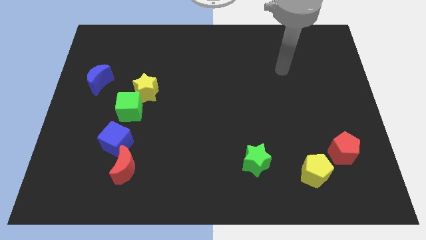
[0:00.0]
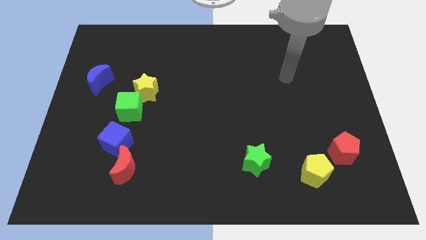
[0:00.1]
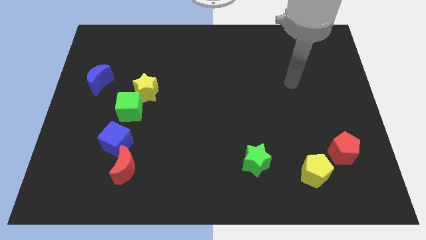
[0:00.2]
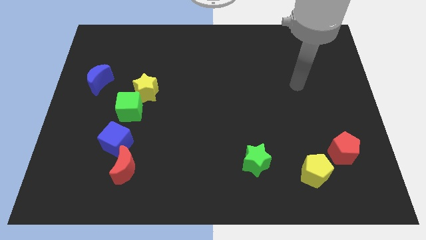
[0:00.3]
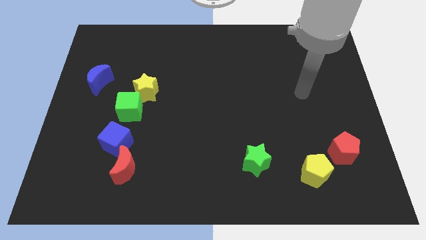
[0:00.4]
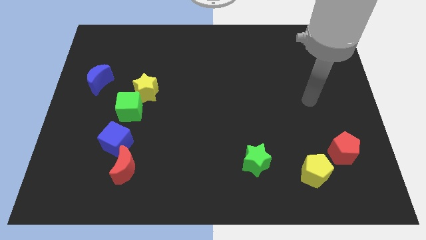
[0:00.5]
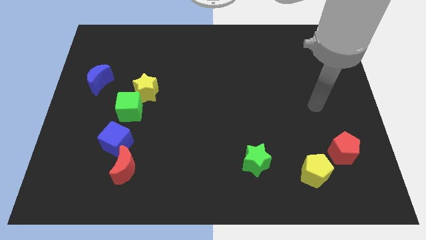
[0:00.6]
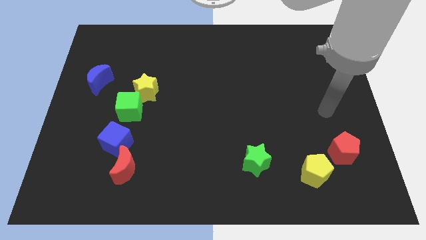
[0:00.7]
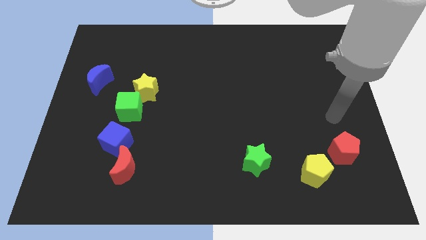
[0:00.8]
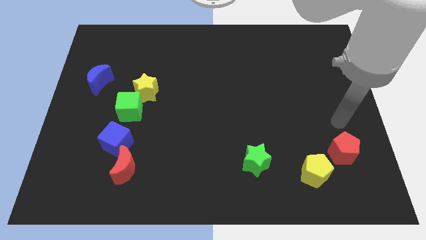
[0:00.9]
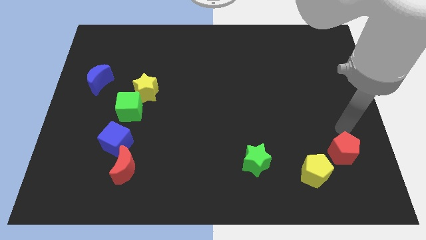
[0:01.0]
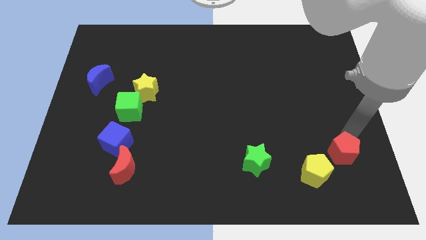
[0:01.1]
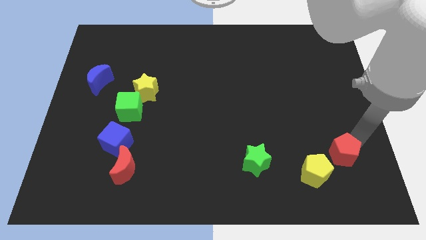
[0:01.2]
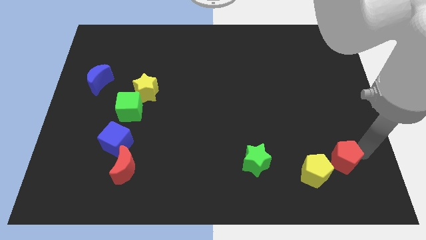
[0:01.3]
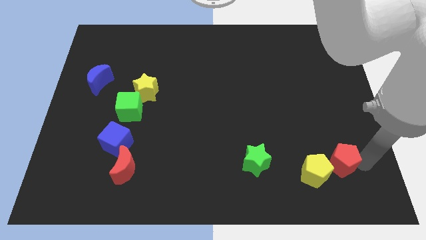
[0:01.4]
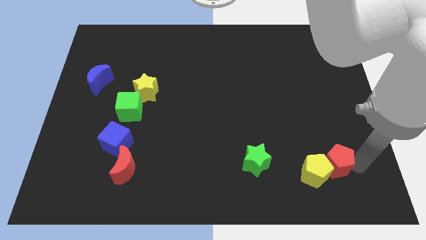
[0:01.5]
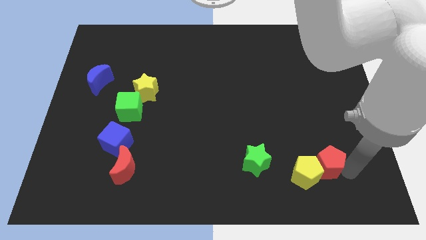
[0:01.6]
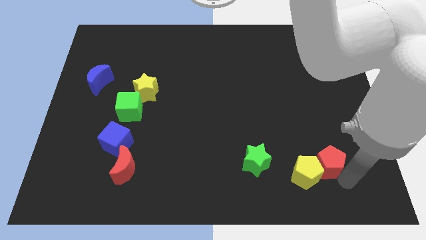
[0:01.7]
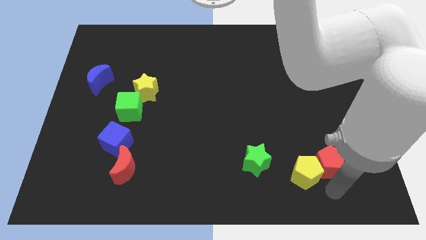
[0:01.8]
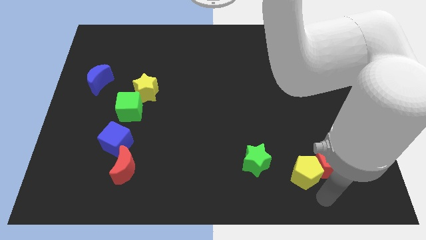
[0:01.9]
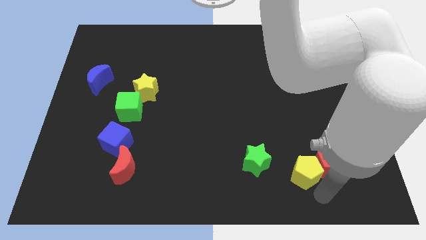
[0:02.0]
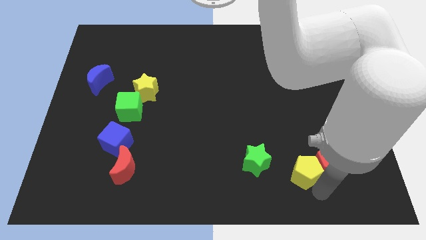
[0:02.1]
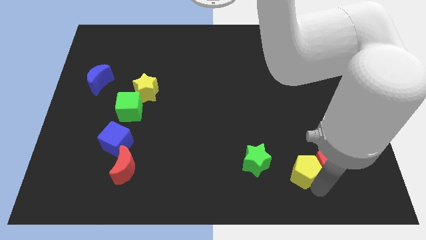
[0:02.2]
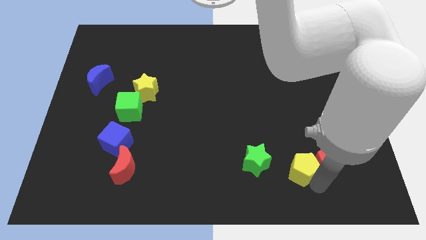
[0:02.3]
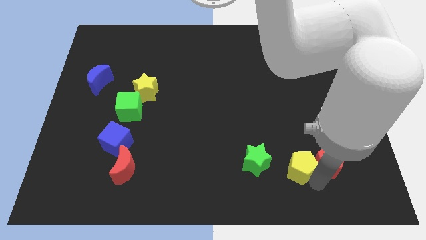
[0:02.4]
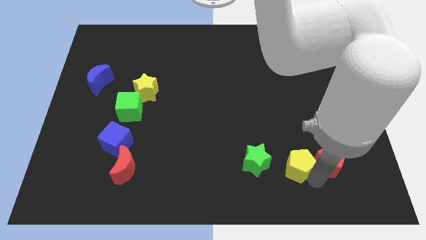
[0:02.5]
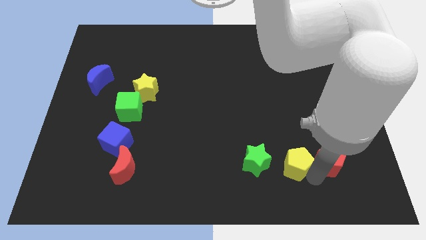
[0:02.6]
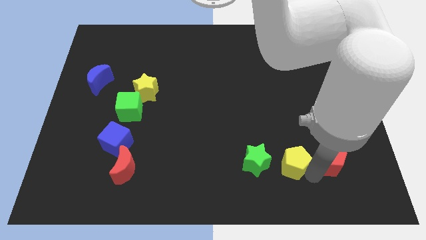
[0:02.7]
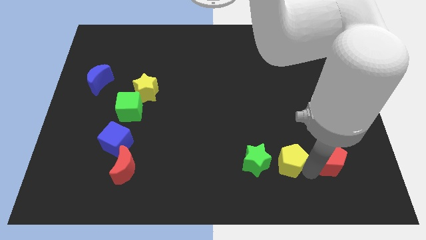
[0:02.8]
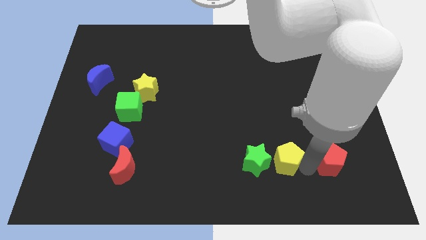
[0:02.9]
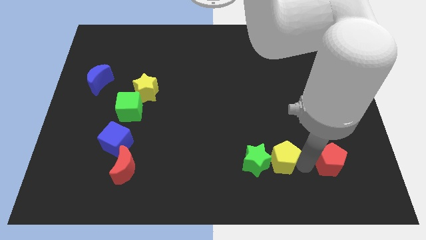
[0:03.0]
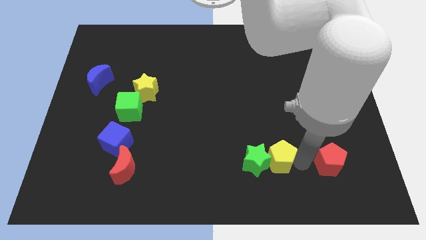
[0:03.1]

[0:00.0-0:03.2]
slightly slide the yellow pentagon up and left diagonally

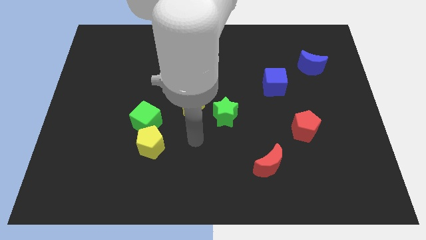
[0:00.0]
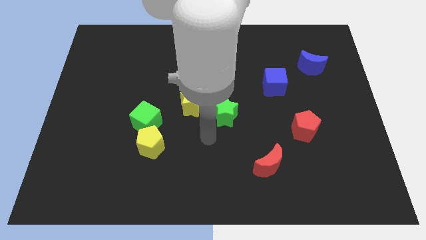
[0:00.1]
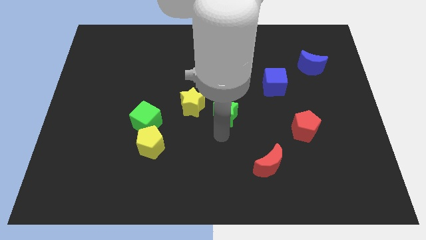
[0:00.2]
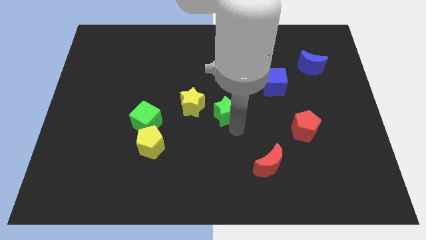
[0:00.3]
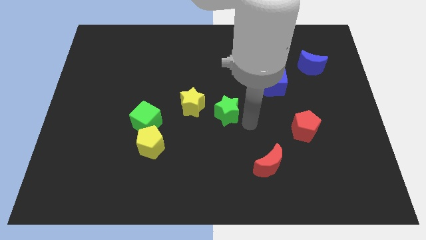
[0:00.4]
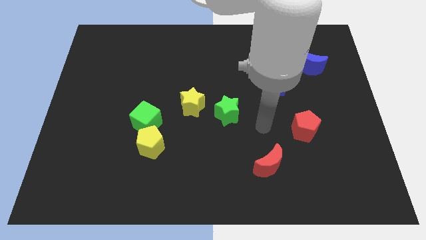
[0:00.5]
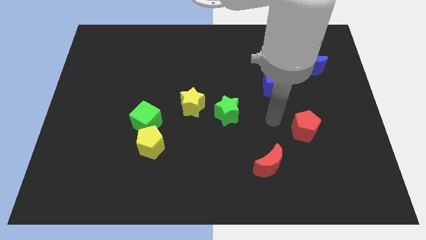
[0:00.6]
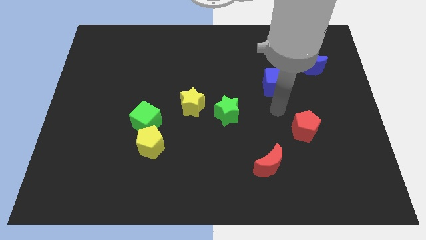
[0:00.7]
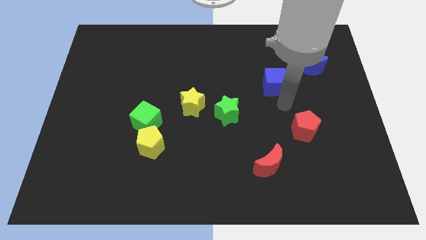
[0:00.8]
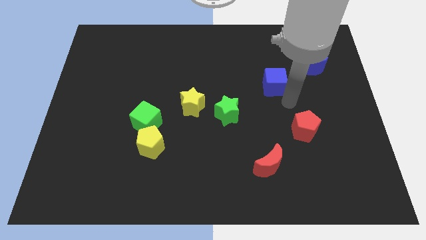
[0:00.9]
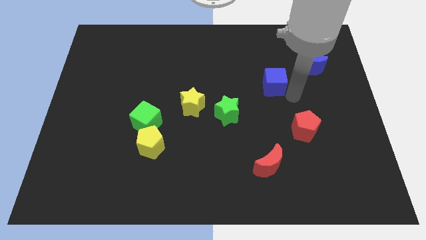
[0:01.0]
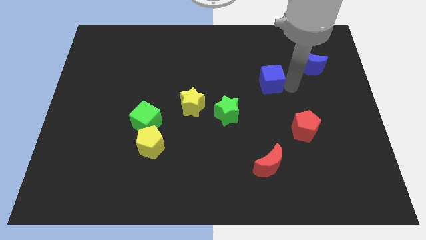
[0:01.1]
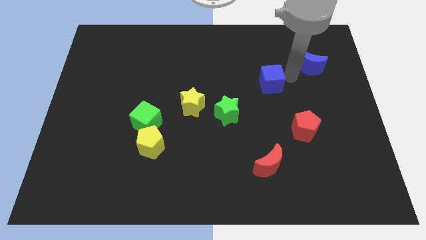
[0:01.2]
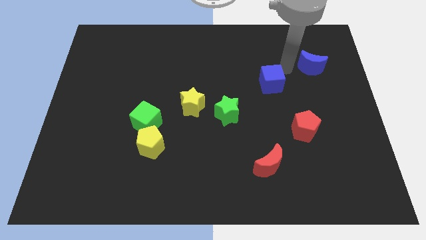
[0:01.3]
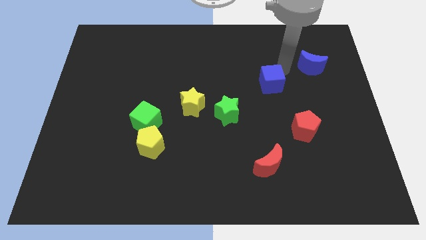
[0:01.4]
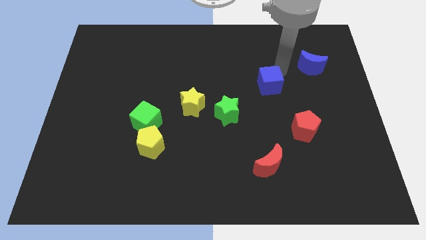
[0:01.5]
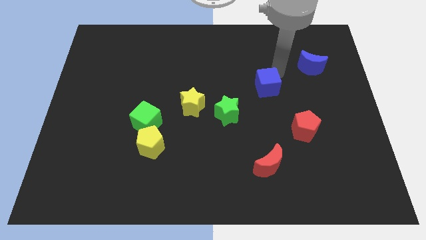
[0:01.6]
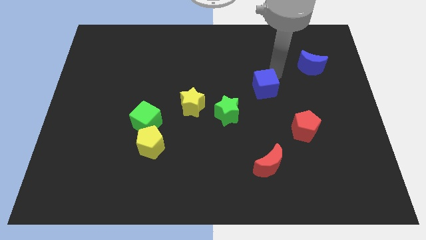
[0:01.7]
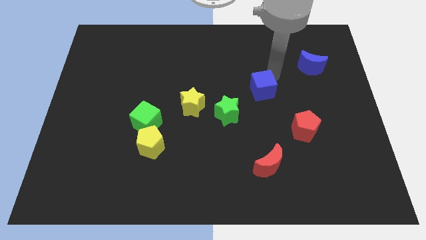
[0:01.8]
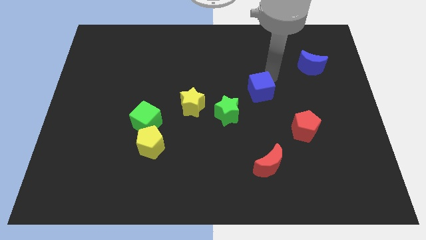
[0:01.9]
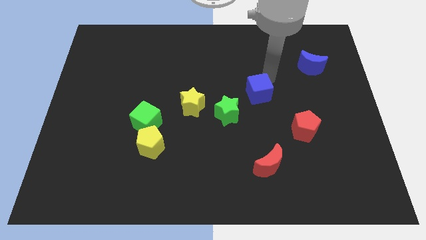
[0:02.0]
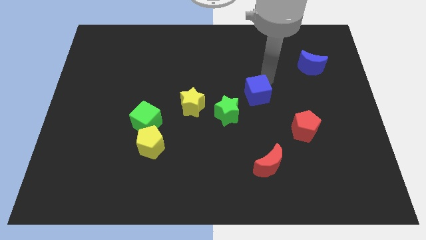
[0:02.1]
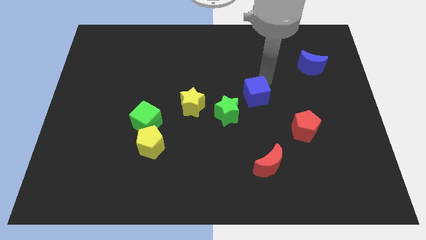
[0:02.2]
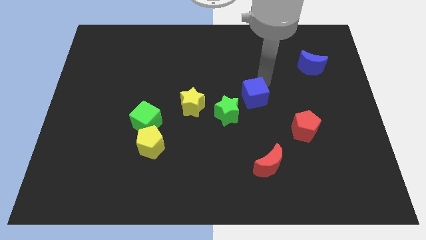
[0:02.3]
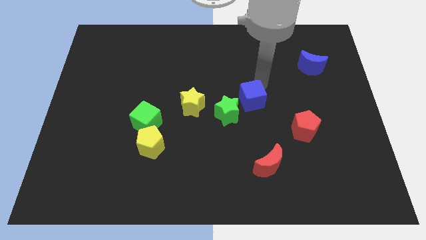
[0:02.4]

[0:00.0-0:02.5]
slide the blue cube downwards and to the left slightly

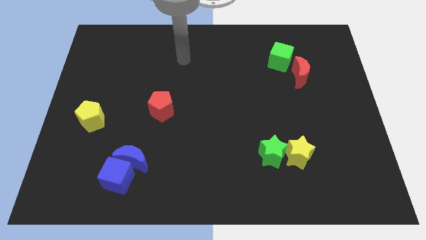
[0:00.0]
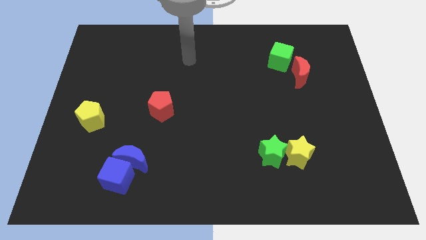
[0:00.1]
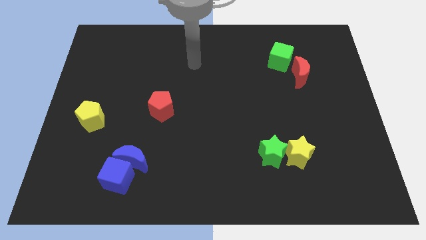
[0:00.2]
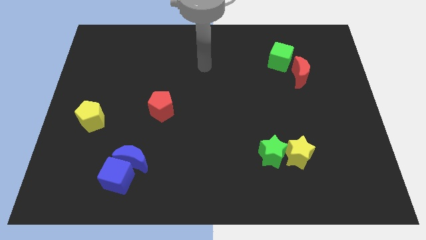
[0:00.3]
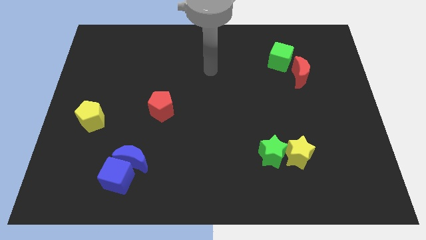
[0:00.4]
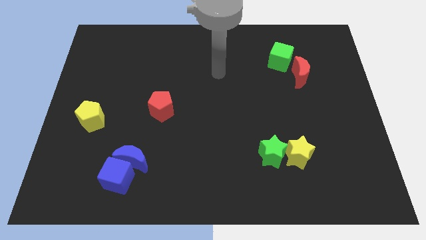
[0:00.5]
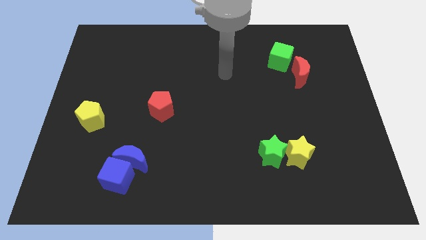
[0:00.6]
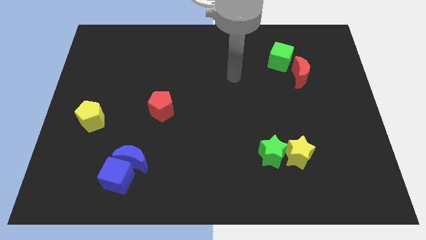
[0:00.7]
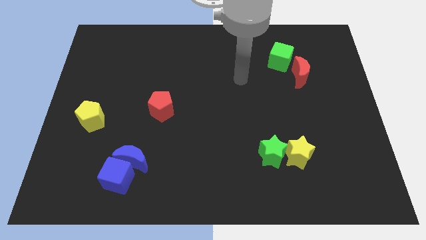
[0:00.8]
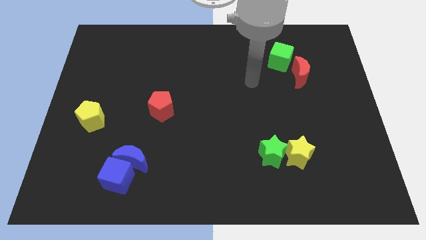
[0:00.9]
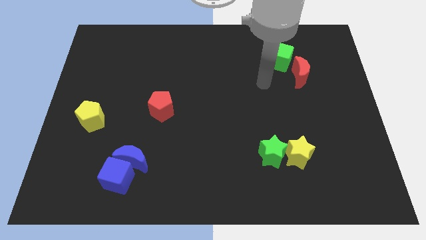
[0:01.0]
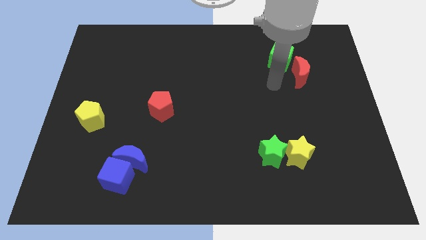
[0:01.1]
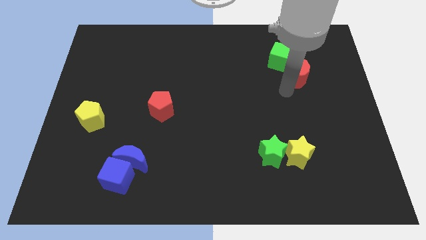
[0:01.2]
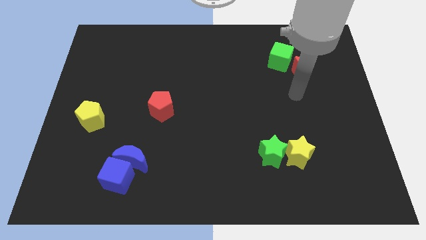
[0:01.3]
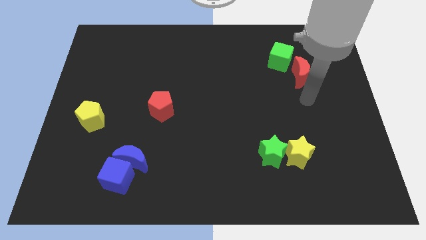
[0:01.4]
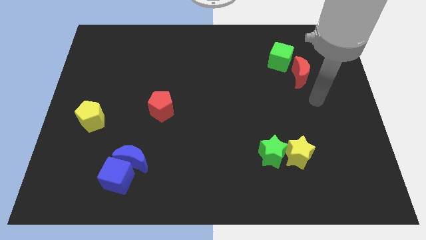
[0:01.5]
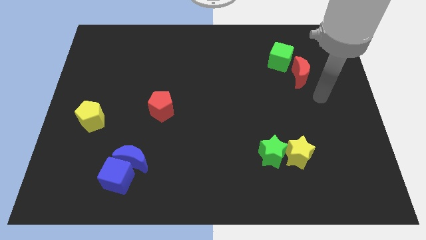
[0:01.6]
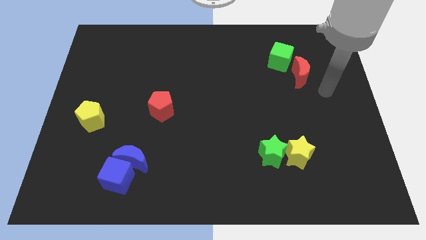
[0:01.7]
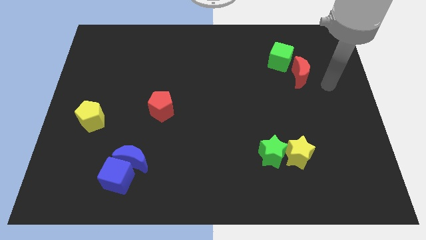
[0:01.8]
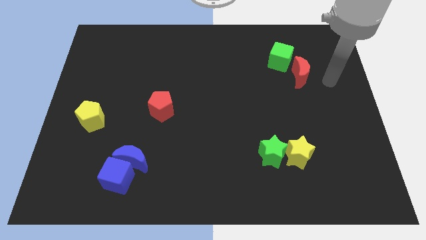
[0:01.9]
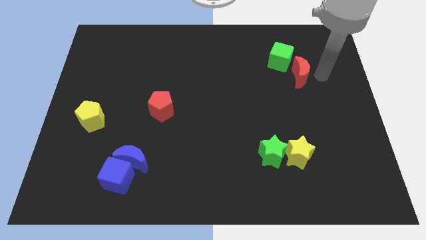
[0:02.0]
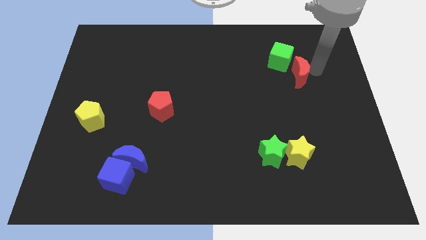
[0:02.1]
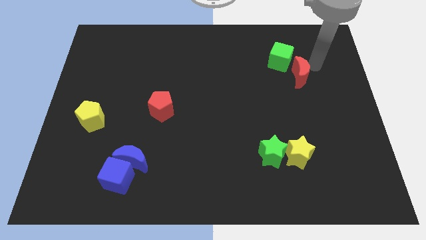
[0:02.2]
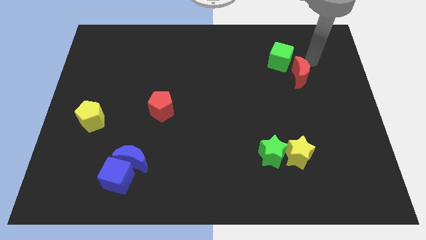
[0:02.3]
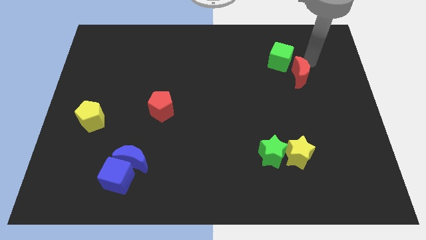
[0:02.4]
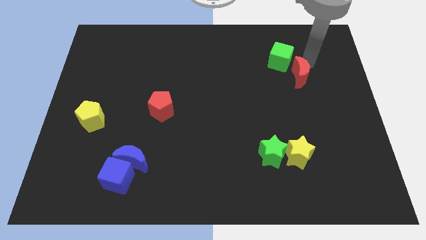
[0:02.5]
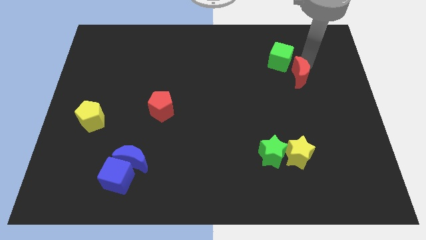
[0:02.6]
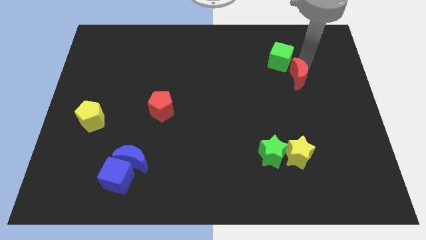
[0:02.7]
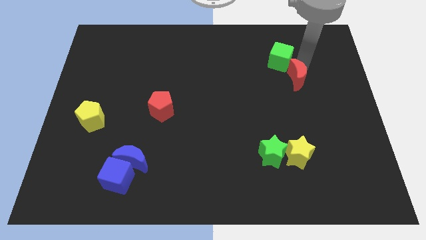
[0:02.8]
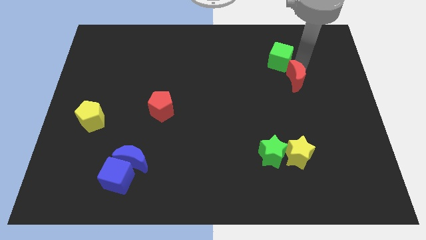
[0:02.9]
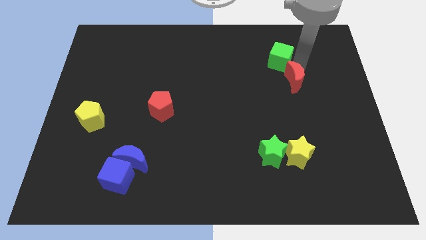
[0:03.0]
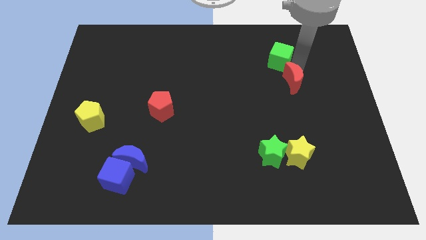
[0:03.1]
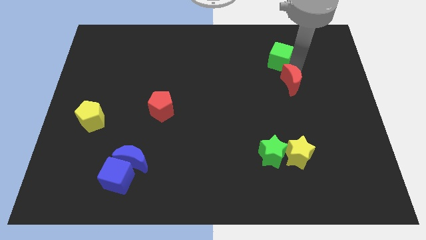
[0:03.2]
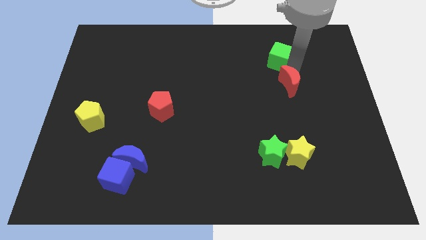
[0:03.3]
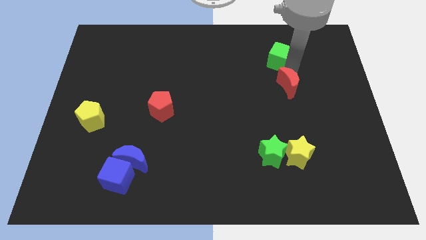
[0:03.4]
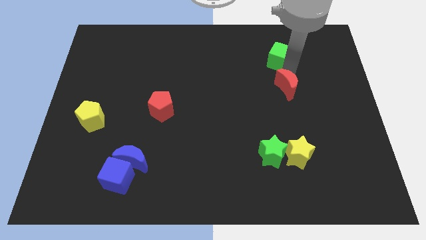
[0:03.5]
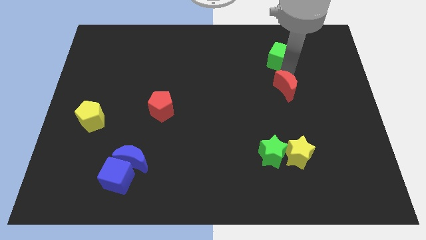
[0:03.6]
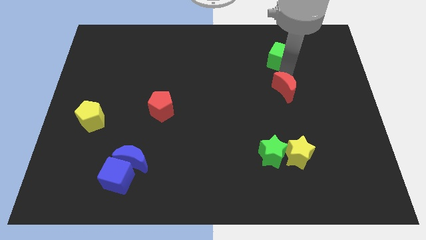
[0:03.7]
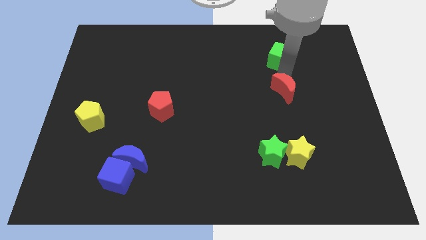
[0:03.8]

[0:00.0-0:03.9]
push the red moon slightly downwards and left
